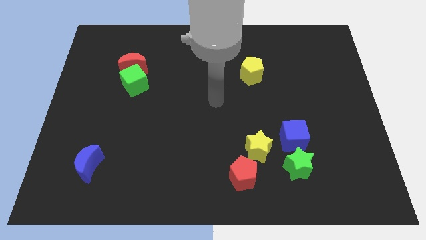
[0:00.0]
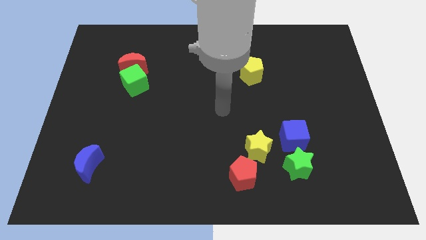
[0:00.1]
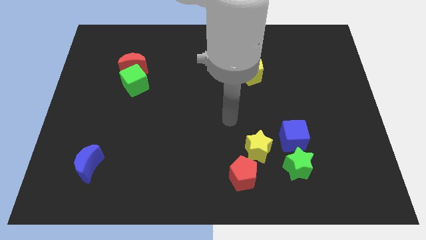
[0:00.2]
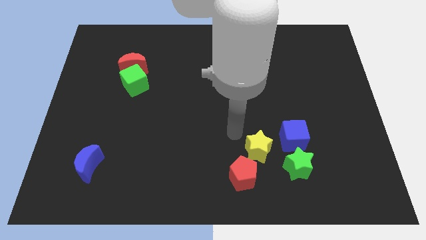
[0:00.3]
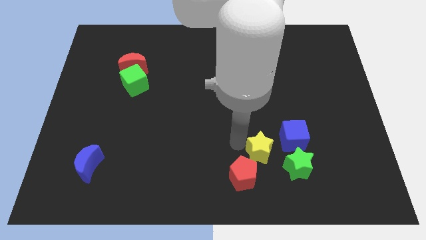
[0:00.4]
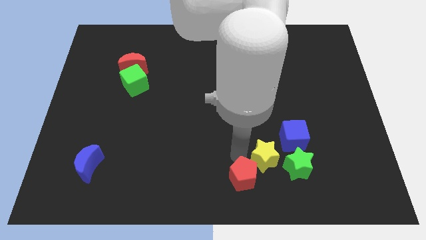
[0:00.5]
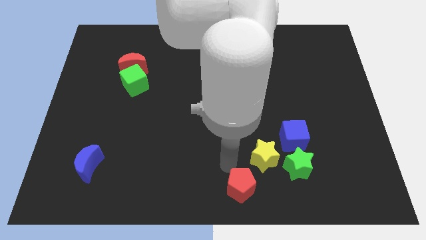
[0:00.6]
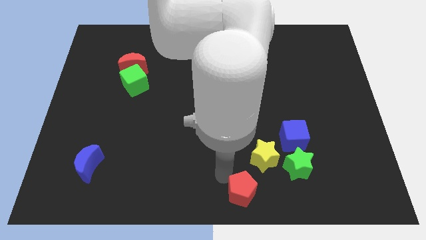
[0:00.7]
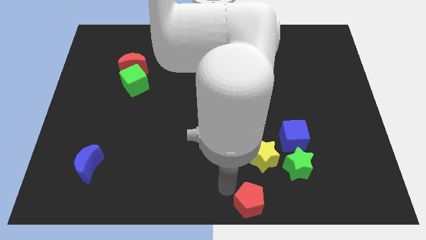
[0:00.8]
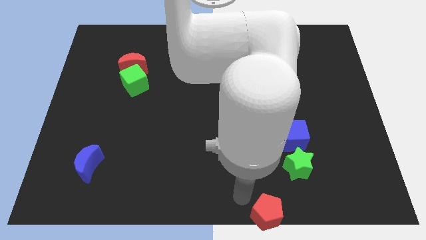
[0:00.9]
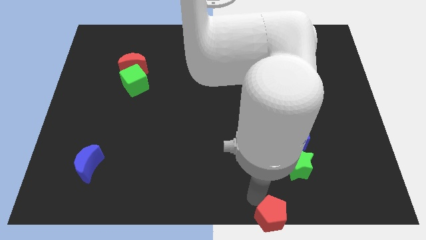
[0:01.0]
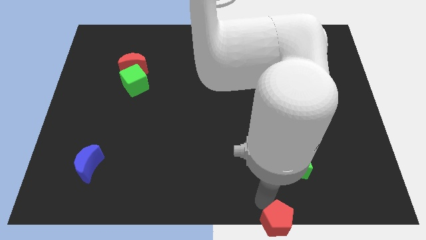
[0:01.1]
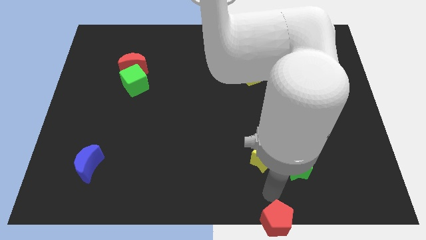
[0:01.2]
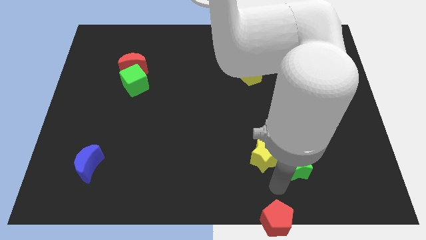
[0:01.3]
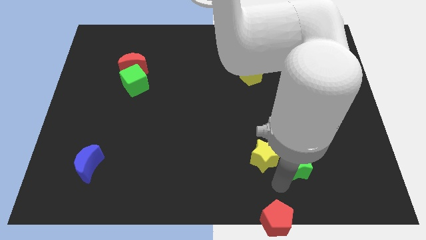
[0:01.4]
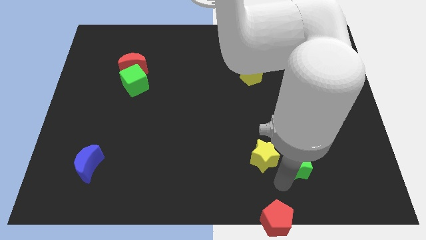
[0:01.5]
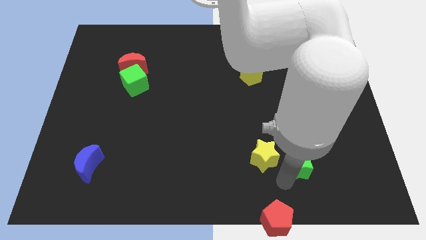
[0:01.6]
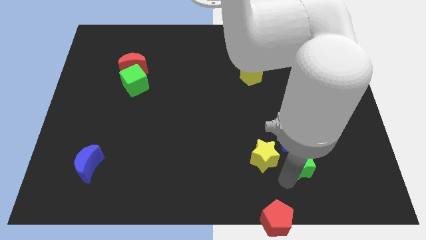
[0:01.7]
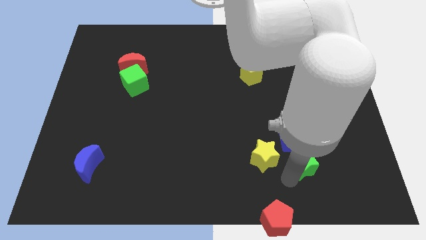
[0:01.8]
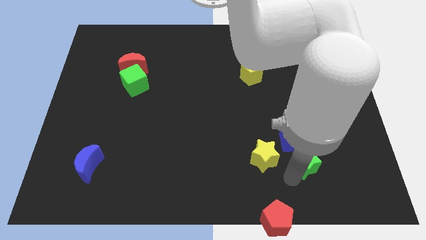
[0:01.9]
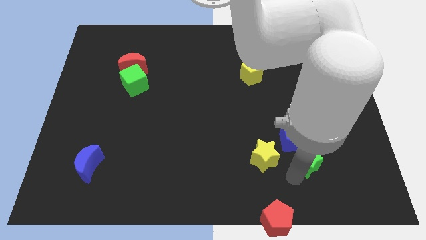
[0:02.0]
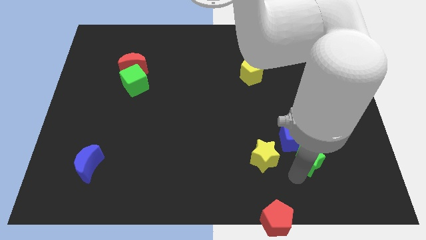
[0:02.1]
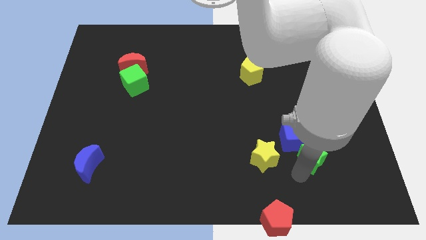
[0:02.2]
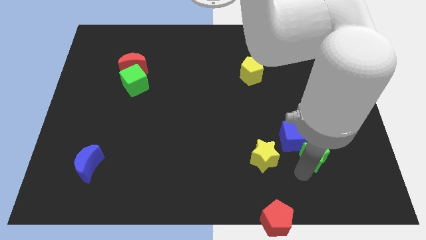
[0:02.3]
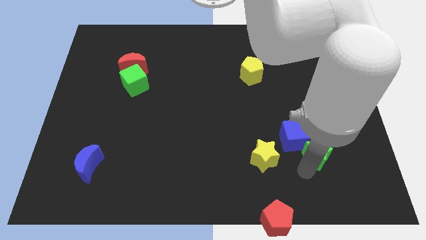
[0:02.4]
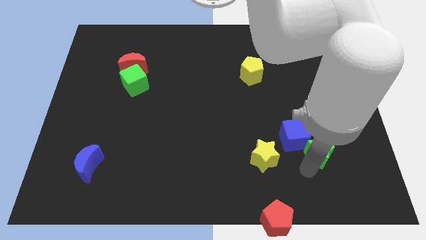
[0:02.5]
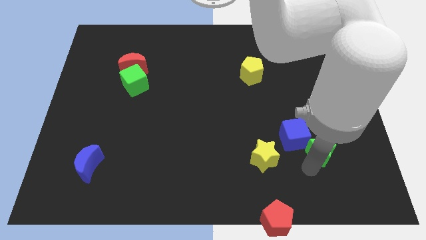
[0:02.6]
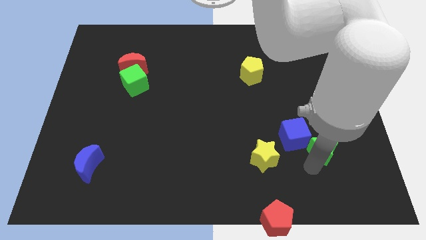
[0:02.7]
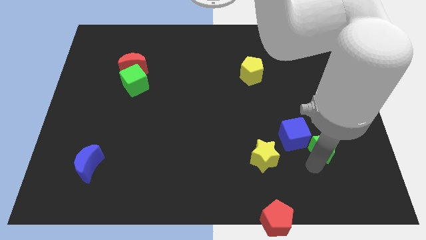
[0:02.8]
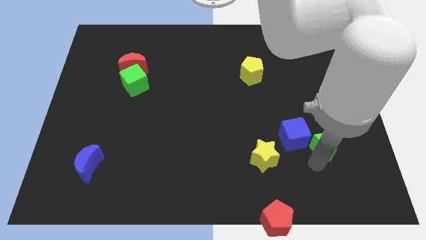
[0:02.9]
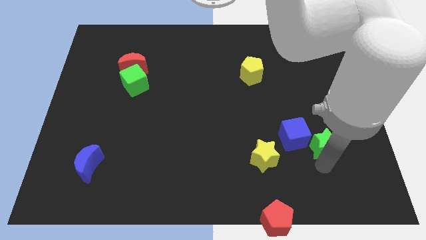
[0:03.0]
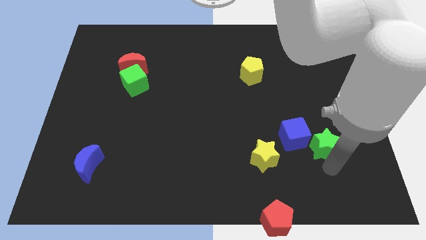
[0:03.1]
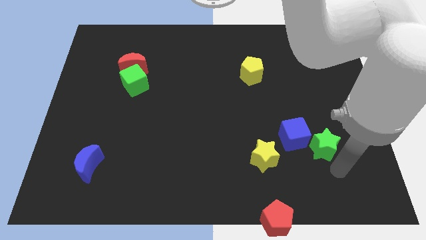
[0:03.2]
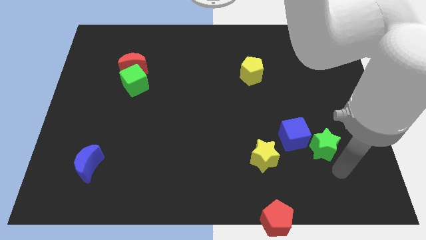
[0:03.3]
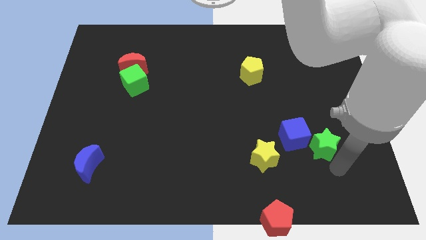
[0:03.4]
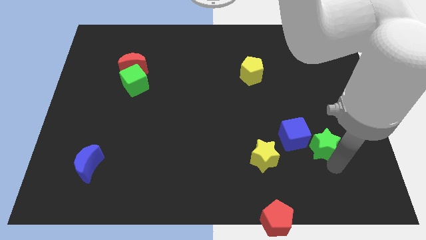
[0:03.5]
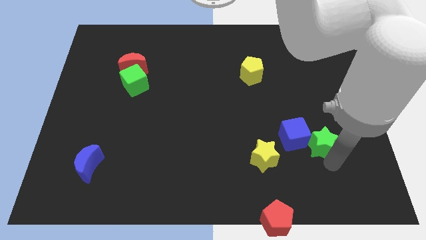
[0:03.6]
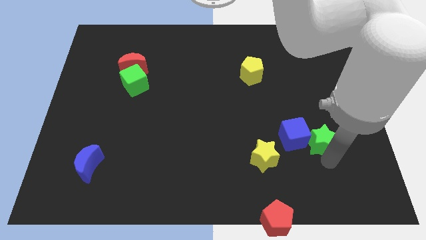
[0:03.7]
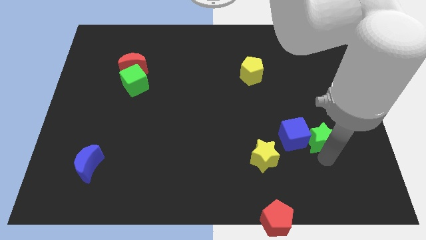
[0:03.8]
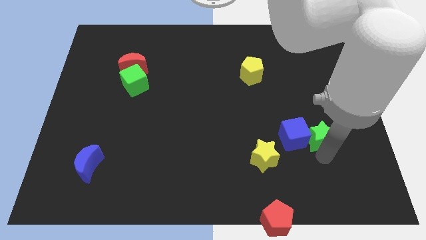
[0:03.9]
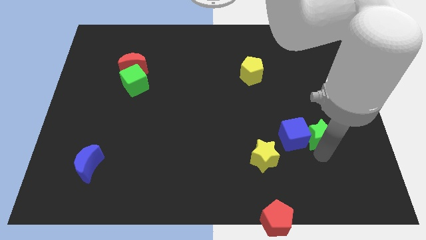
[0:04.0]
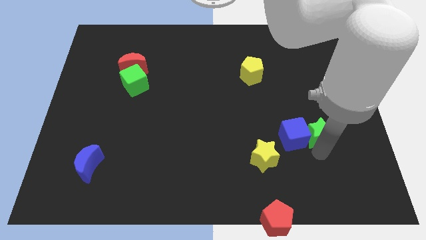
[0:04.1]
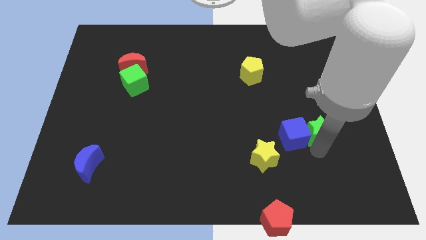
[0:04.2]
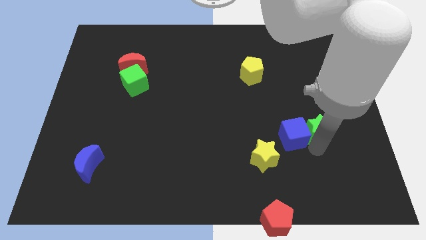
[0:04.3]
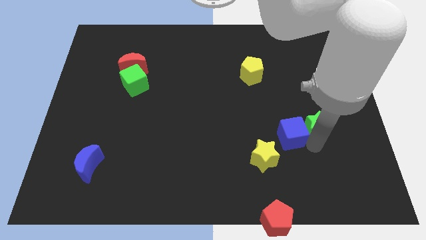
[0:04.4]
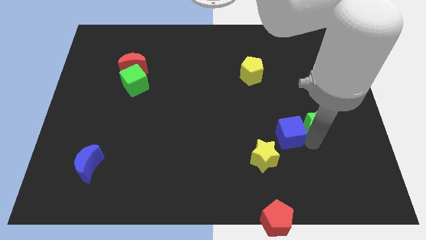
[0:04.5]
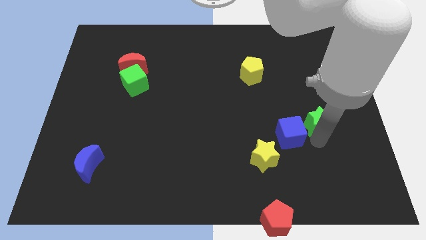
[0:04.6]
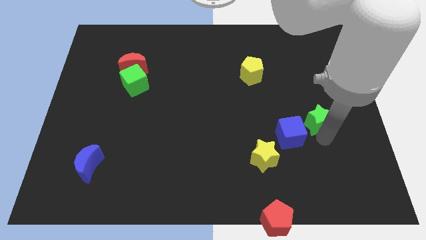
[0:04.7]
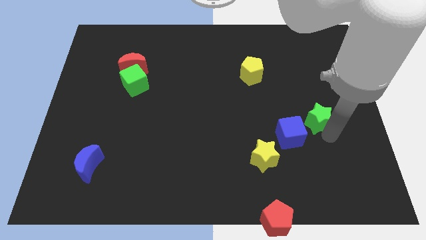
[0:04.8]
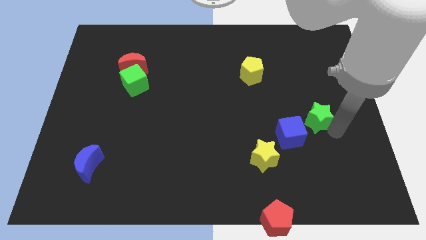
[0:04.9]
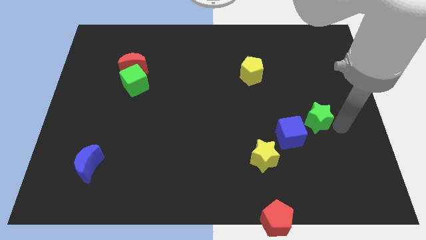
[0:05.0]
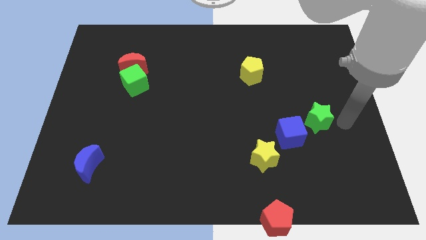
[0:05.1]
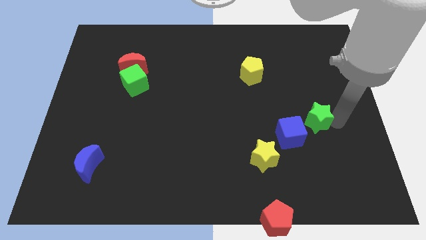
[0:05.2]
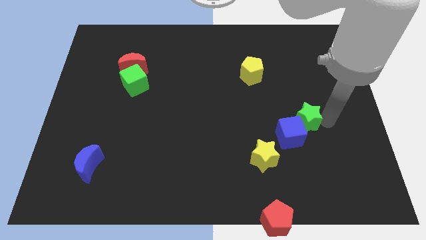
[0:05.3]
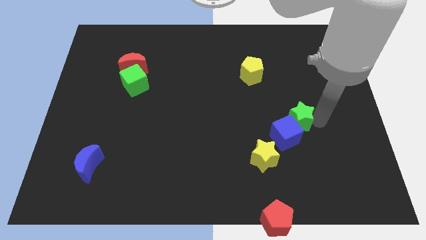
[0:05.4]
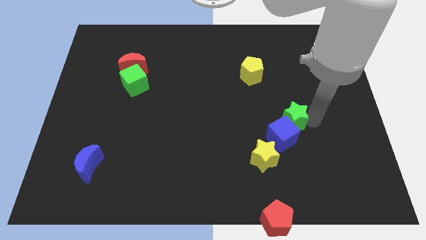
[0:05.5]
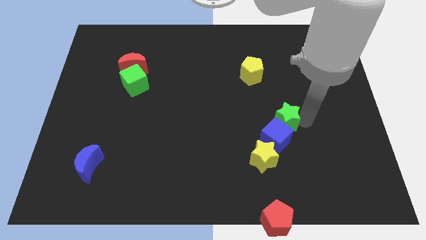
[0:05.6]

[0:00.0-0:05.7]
move the green star a little bit up and then left

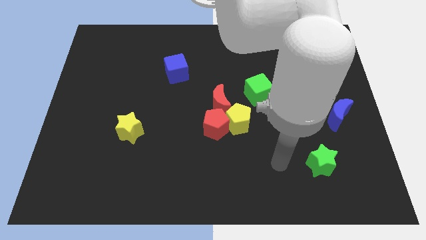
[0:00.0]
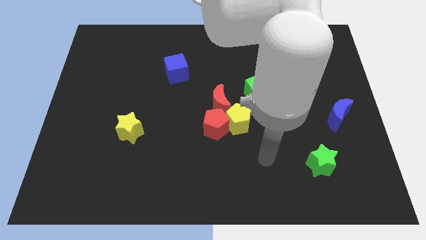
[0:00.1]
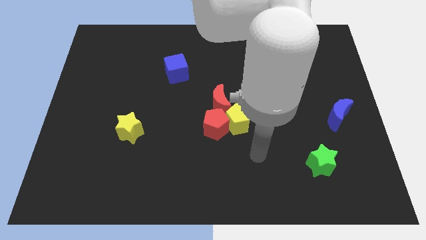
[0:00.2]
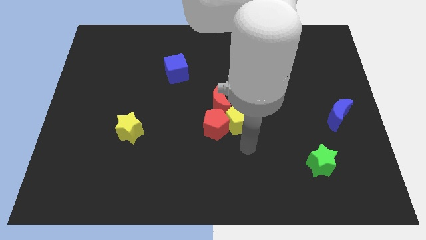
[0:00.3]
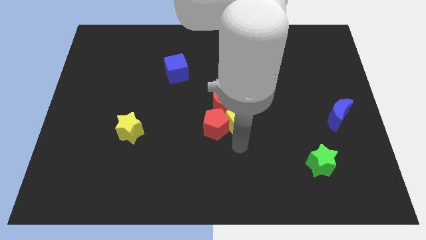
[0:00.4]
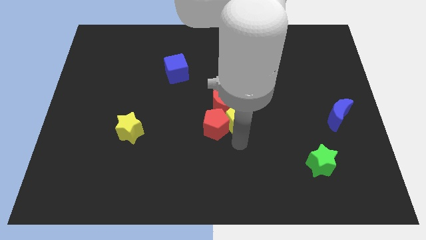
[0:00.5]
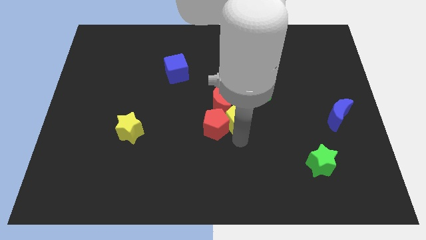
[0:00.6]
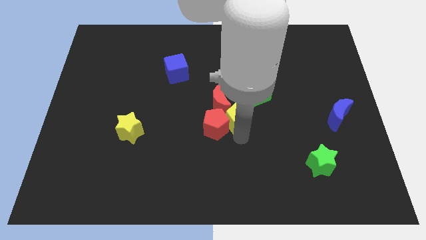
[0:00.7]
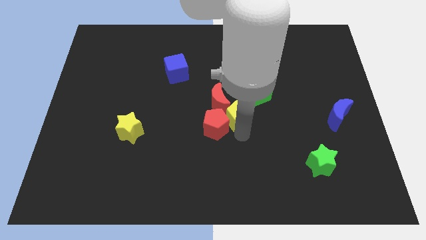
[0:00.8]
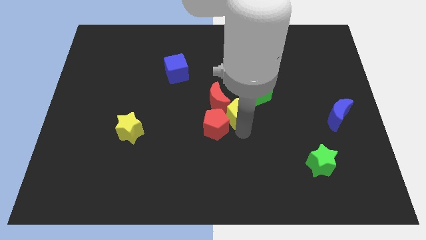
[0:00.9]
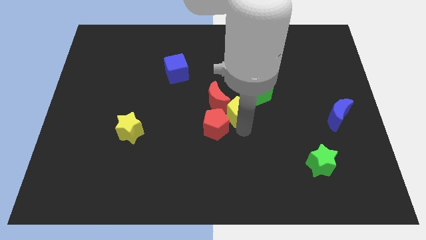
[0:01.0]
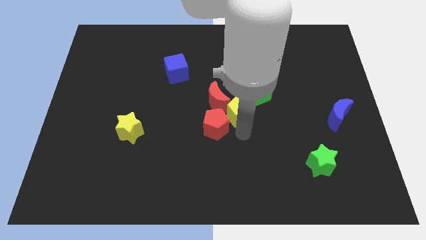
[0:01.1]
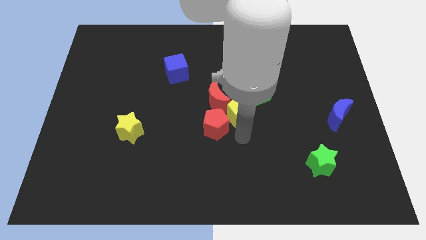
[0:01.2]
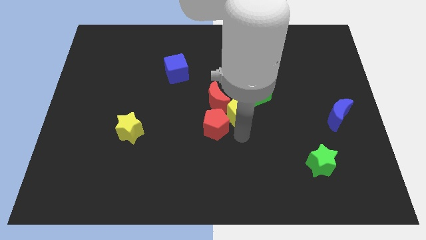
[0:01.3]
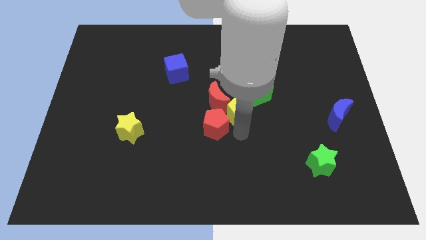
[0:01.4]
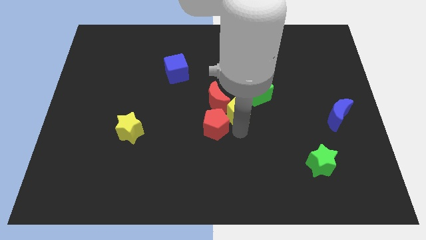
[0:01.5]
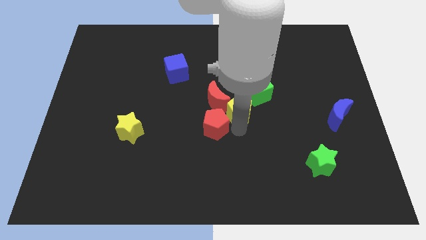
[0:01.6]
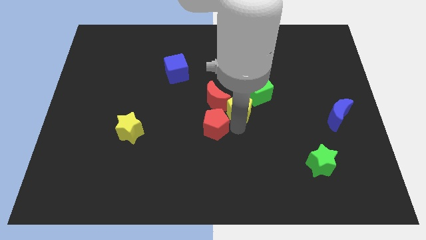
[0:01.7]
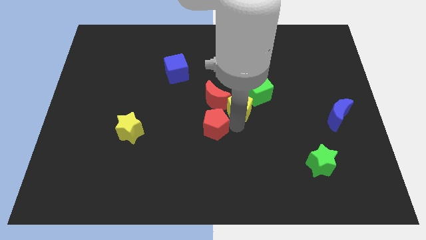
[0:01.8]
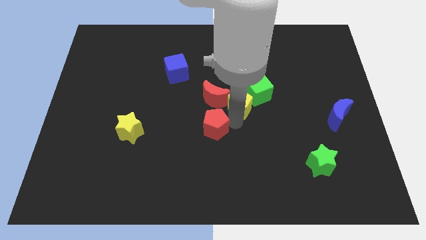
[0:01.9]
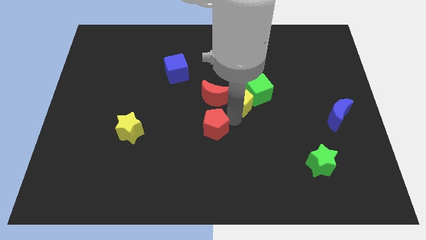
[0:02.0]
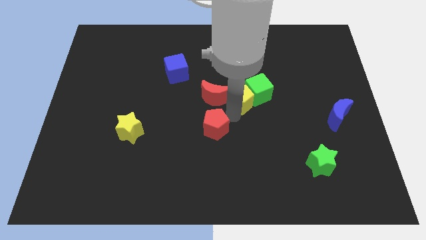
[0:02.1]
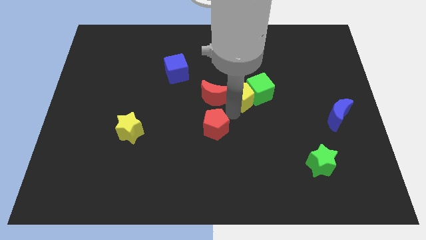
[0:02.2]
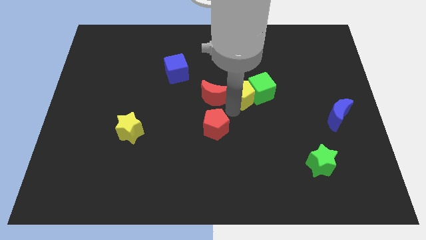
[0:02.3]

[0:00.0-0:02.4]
move the yellow pentagon slightly up
